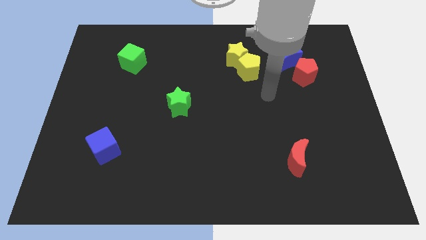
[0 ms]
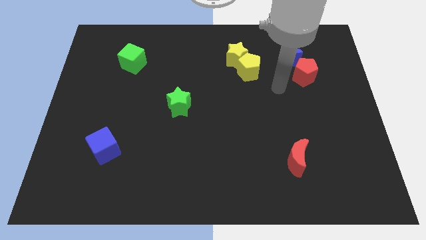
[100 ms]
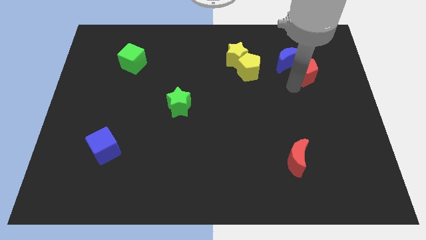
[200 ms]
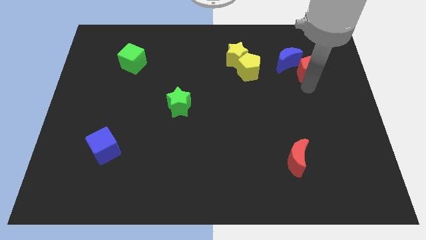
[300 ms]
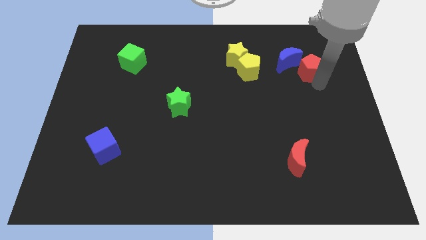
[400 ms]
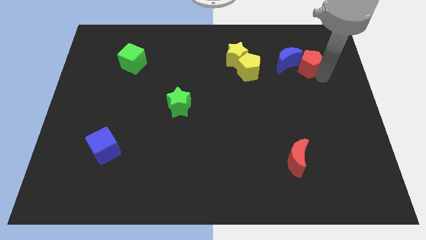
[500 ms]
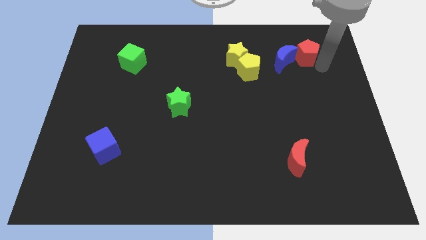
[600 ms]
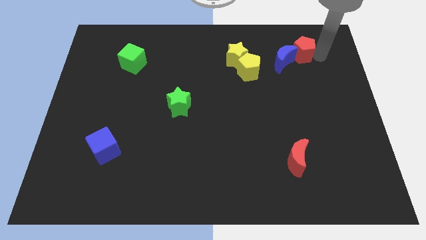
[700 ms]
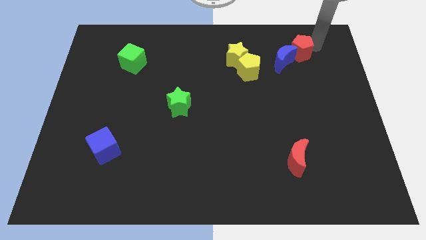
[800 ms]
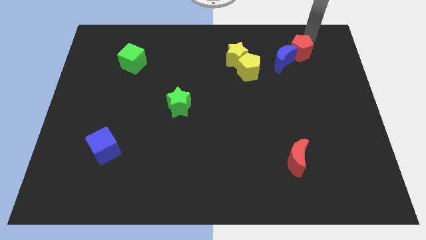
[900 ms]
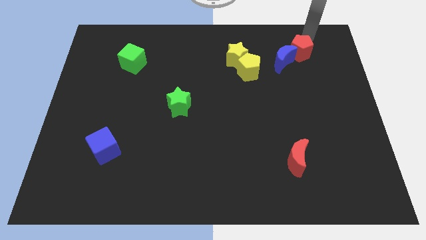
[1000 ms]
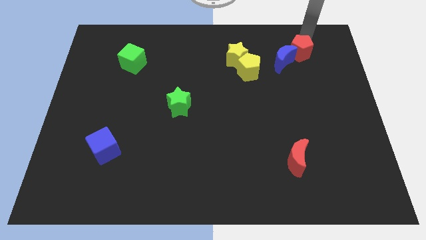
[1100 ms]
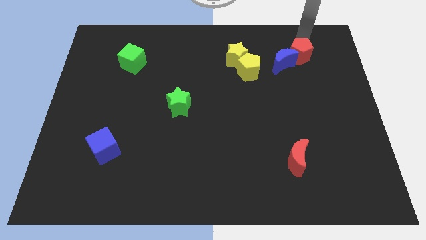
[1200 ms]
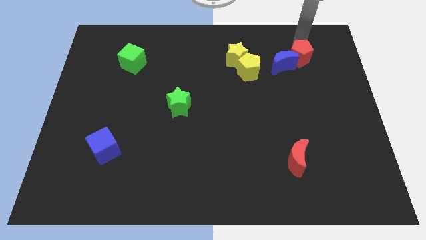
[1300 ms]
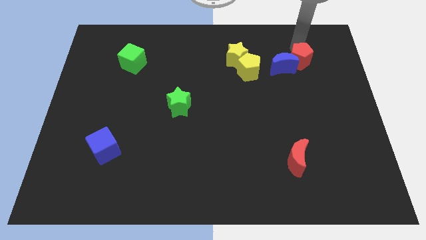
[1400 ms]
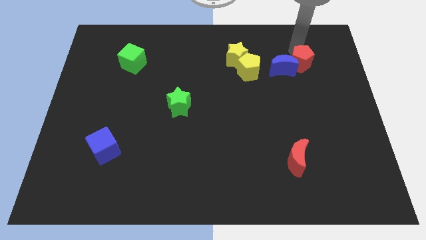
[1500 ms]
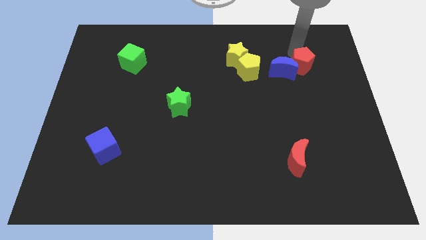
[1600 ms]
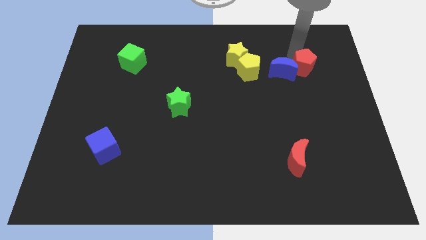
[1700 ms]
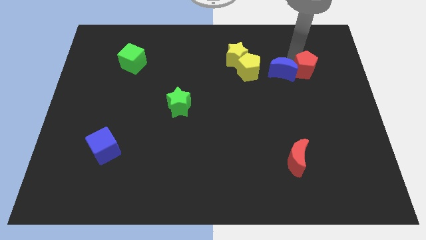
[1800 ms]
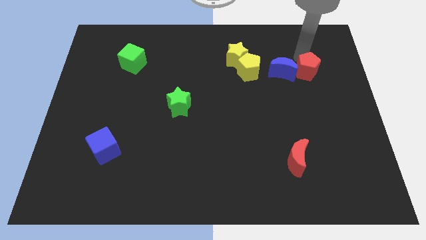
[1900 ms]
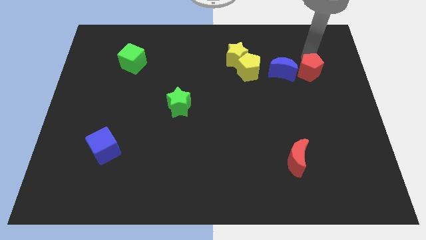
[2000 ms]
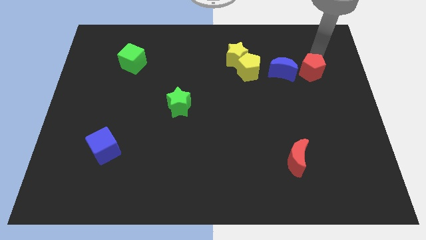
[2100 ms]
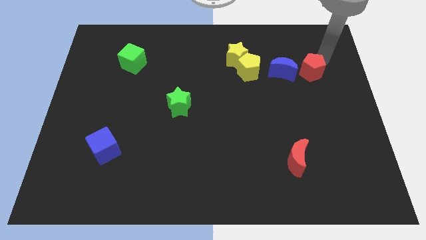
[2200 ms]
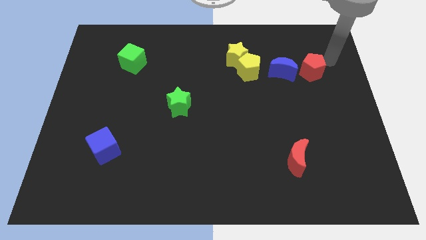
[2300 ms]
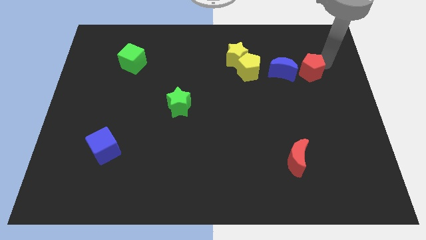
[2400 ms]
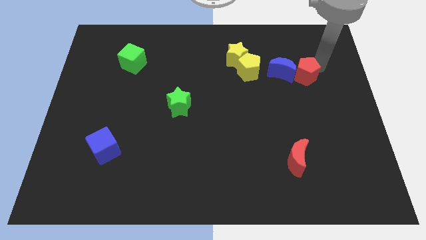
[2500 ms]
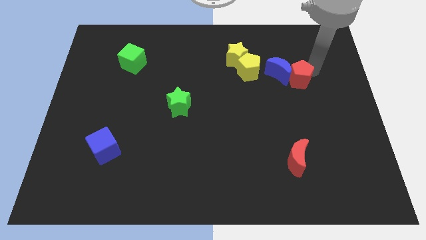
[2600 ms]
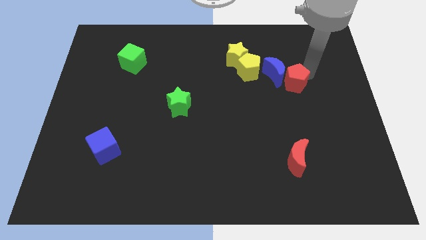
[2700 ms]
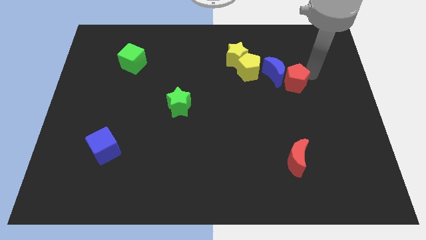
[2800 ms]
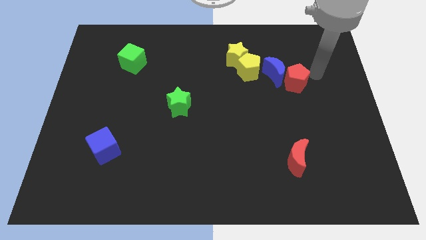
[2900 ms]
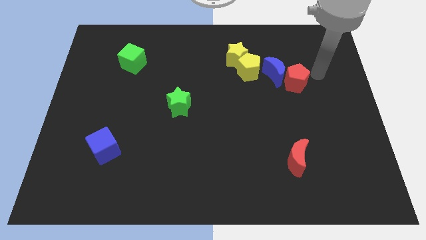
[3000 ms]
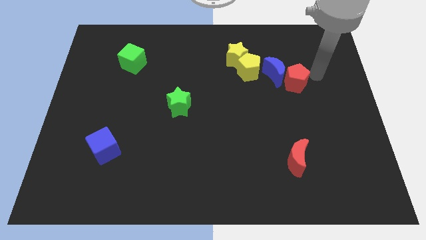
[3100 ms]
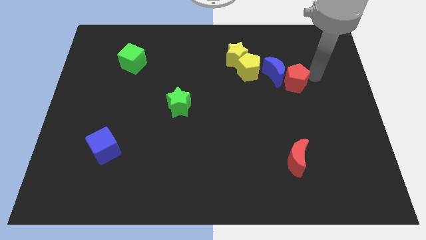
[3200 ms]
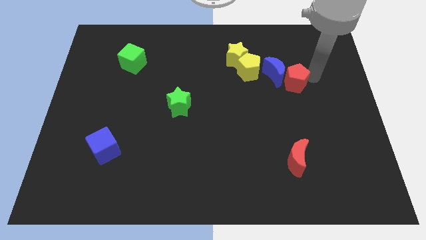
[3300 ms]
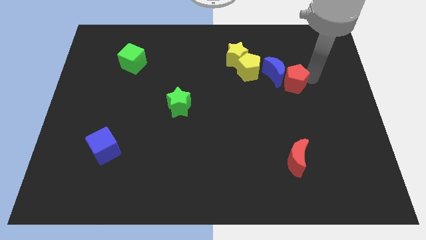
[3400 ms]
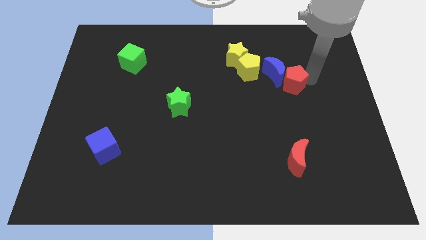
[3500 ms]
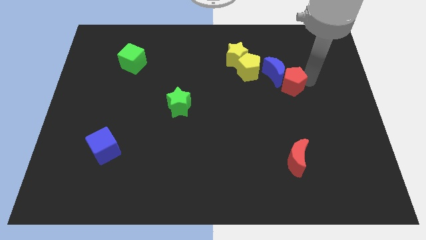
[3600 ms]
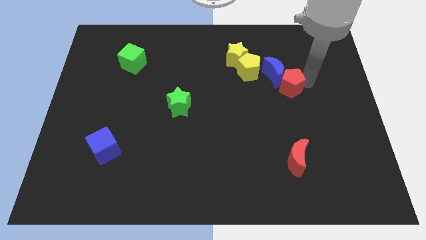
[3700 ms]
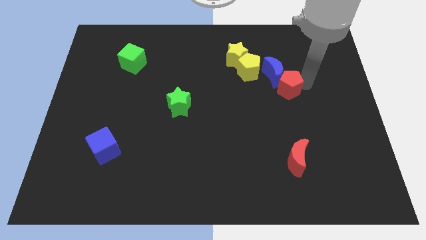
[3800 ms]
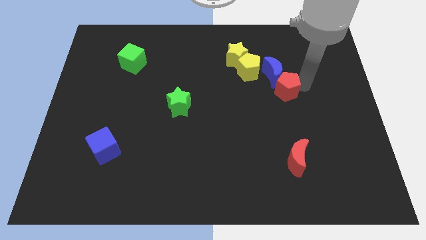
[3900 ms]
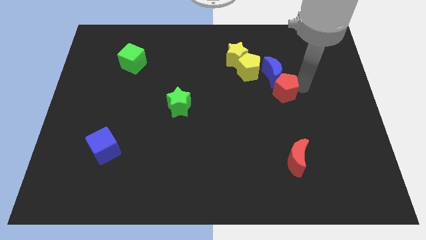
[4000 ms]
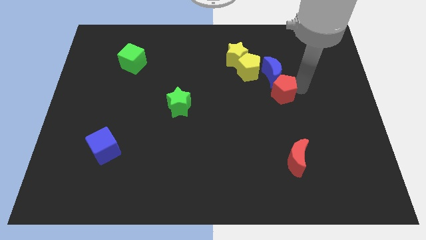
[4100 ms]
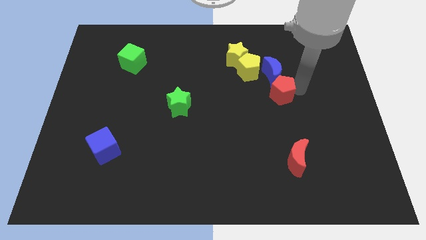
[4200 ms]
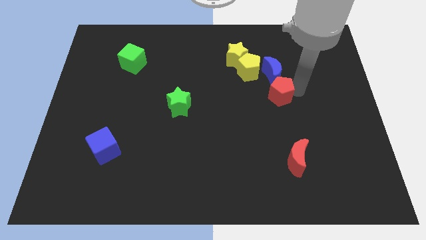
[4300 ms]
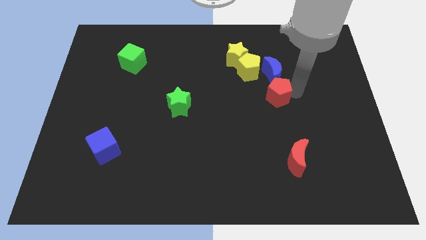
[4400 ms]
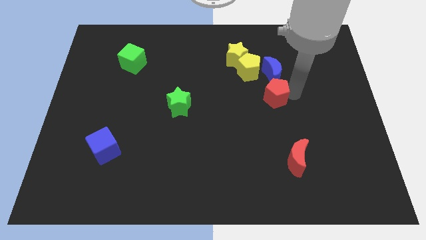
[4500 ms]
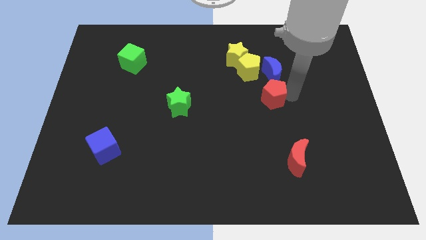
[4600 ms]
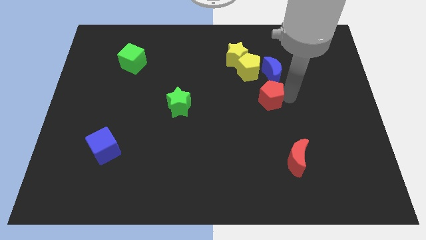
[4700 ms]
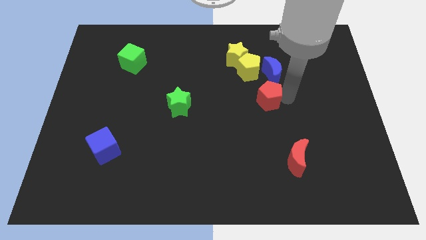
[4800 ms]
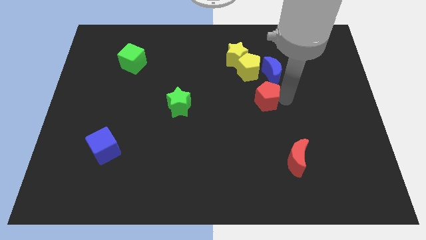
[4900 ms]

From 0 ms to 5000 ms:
move the red pentagon to the center

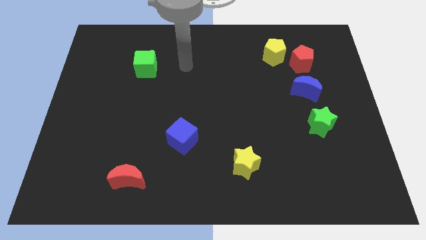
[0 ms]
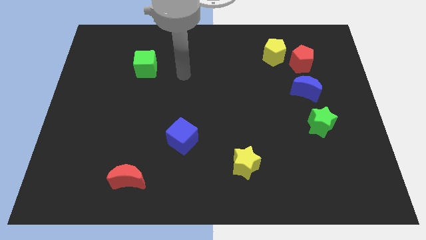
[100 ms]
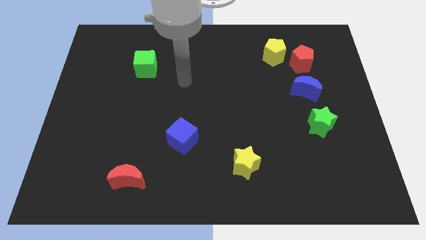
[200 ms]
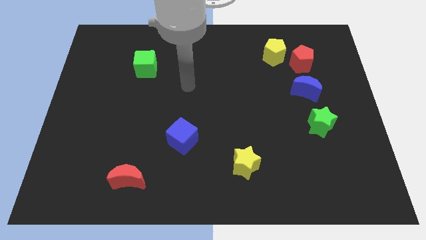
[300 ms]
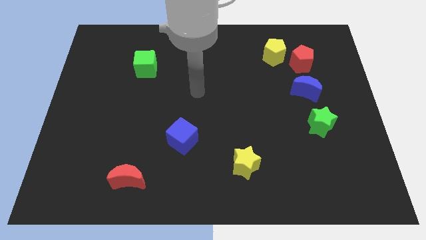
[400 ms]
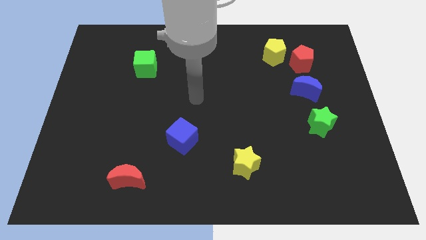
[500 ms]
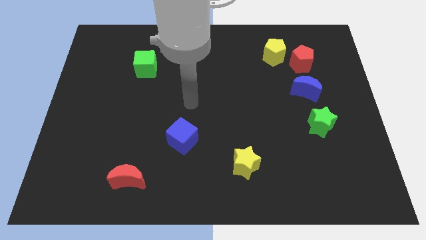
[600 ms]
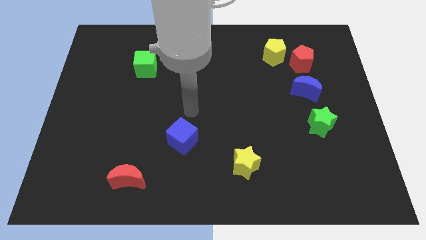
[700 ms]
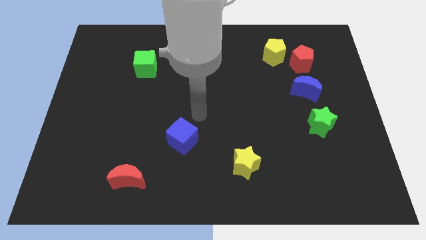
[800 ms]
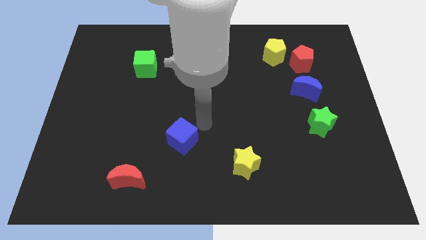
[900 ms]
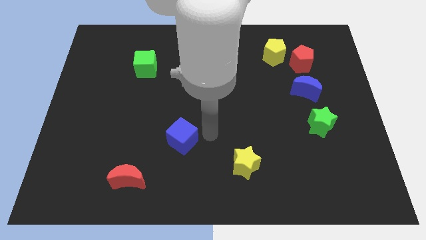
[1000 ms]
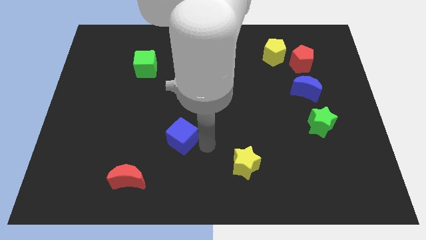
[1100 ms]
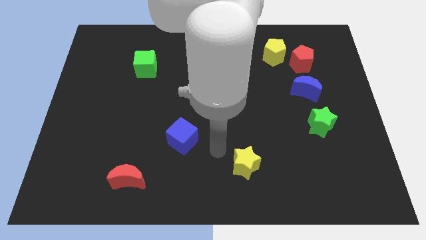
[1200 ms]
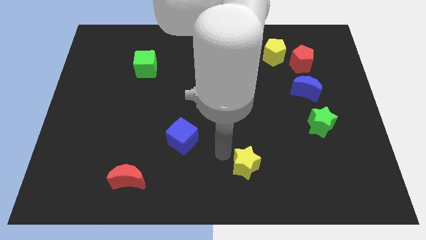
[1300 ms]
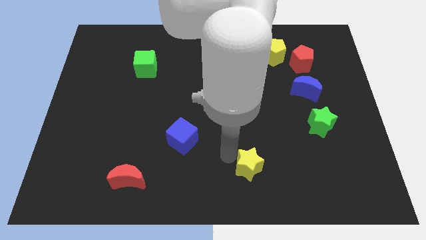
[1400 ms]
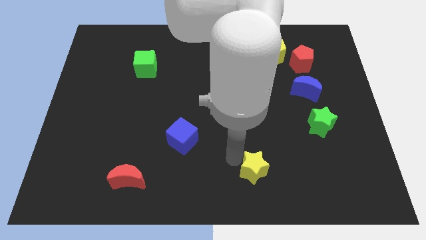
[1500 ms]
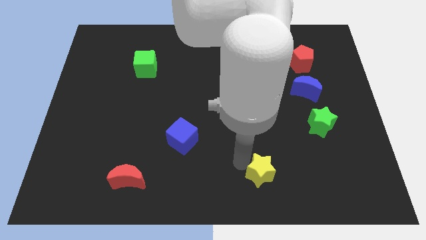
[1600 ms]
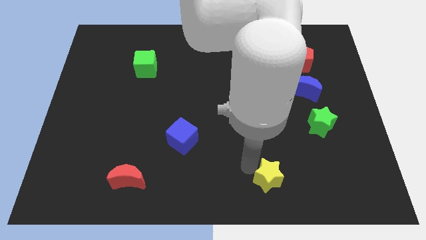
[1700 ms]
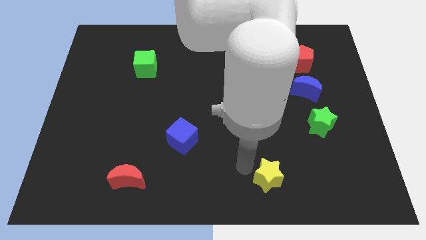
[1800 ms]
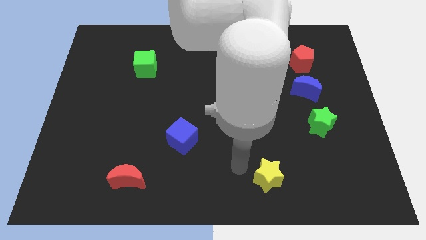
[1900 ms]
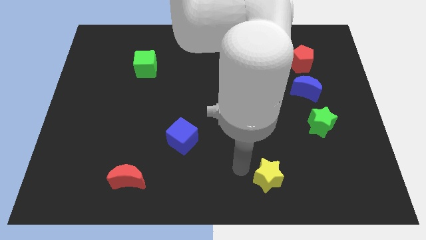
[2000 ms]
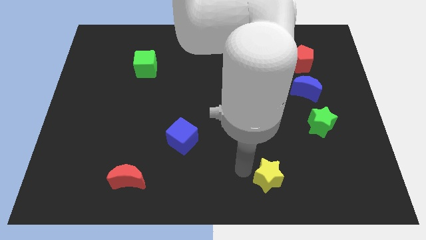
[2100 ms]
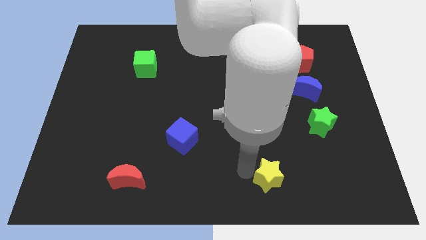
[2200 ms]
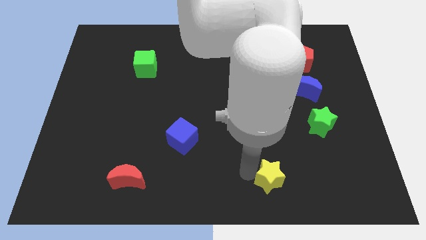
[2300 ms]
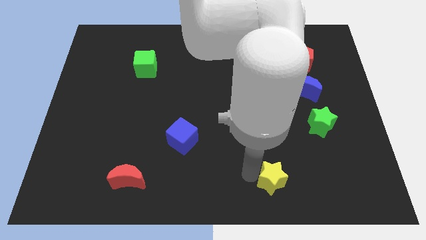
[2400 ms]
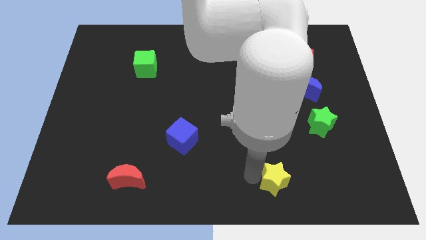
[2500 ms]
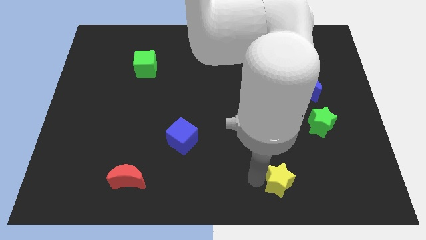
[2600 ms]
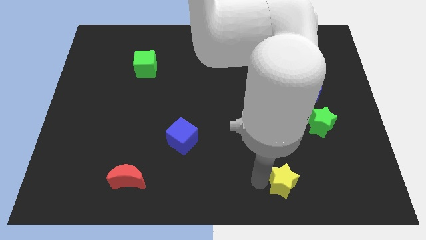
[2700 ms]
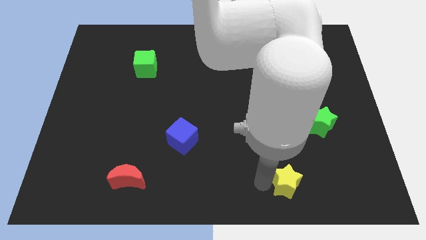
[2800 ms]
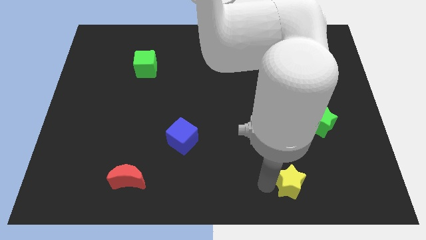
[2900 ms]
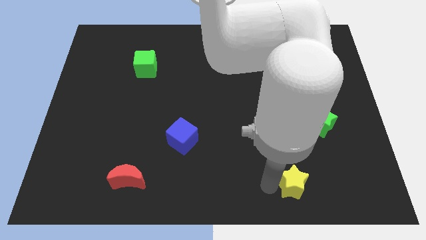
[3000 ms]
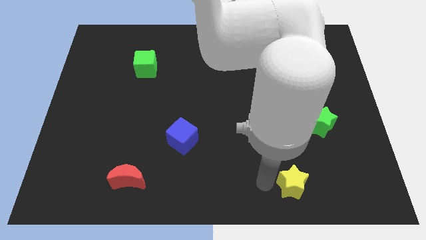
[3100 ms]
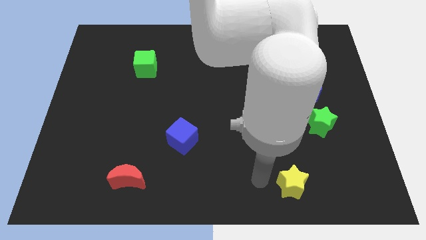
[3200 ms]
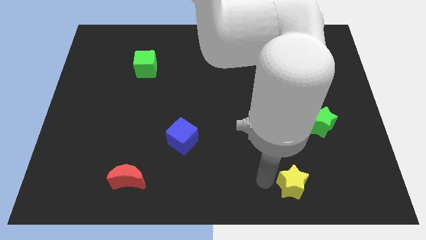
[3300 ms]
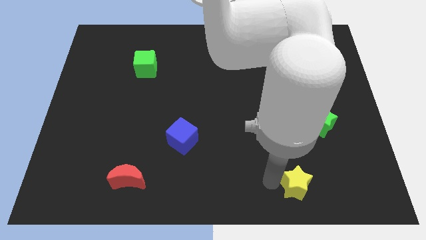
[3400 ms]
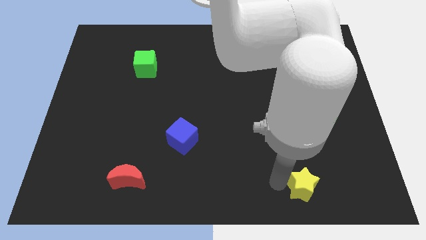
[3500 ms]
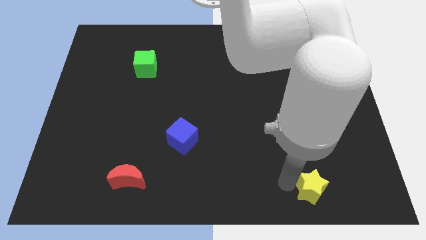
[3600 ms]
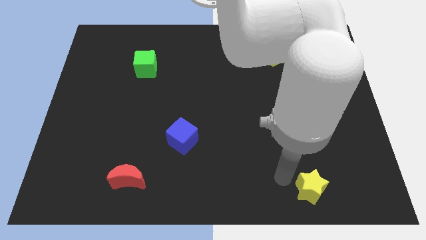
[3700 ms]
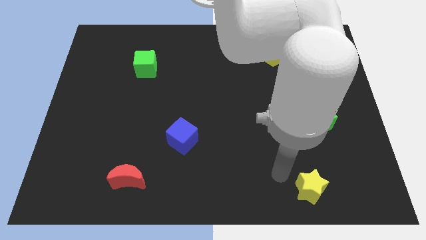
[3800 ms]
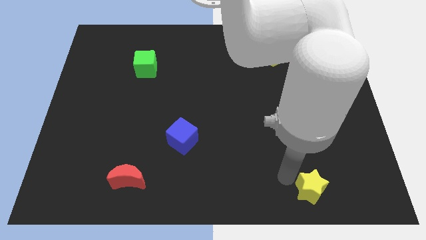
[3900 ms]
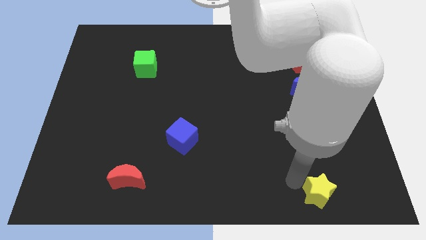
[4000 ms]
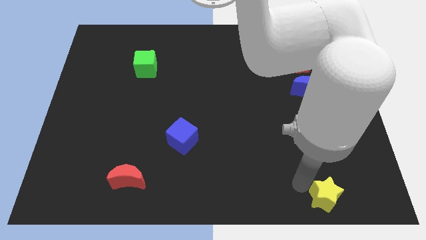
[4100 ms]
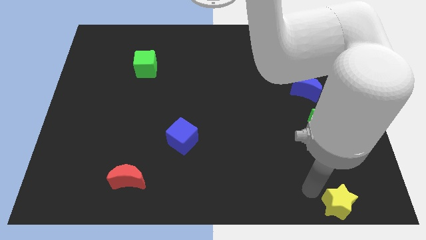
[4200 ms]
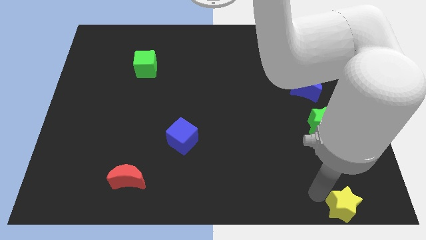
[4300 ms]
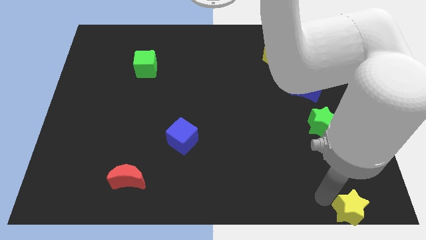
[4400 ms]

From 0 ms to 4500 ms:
push the yellow star to the bottom right corner
